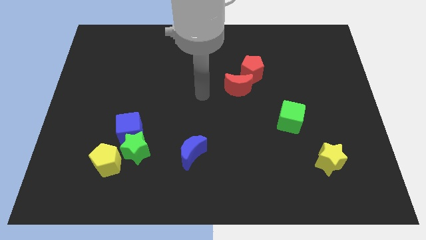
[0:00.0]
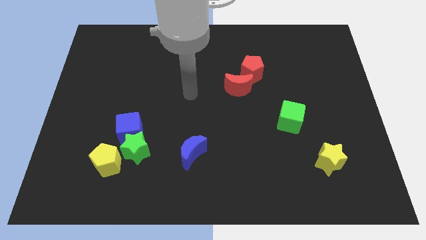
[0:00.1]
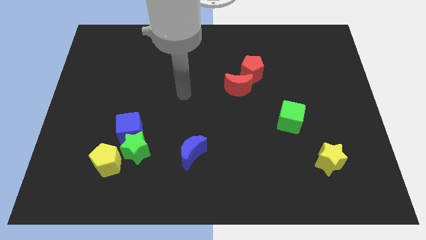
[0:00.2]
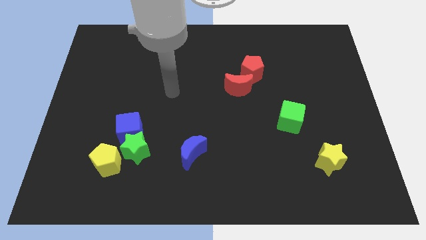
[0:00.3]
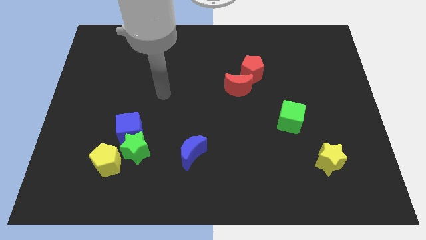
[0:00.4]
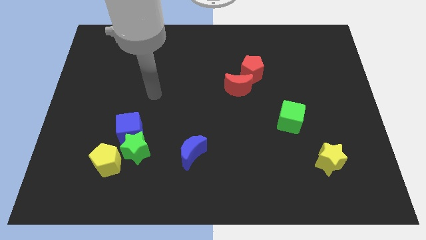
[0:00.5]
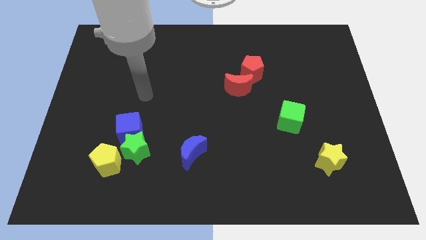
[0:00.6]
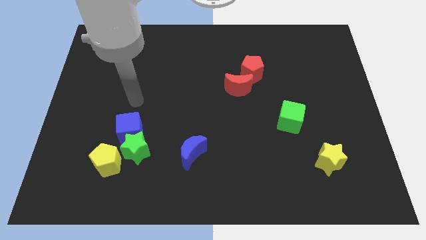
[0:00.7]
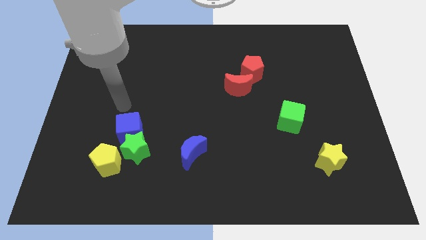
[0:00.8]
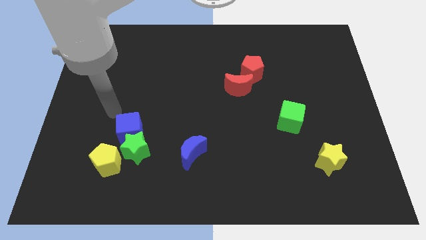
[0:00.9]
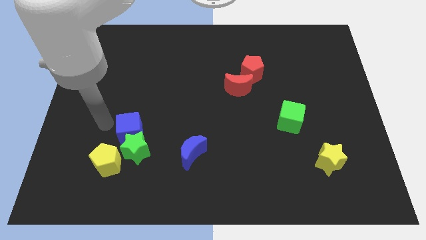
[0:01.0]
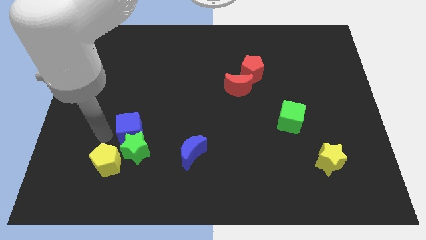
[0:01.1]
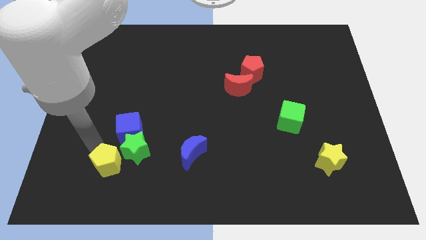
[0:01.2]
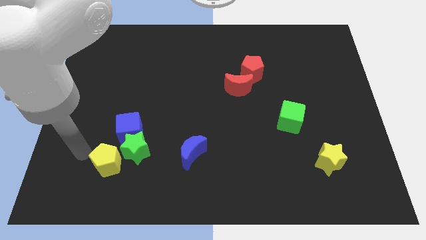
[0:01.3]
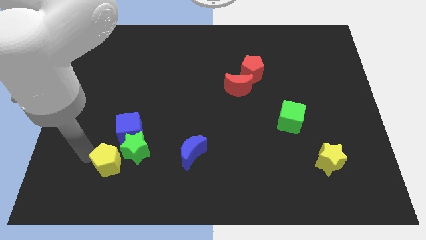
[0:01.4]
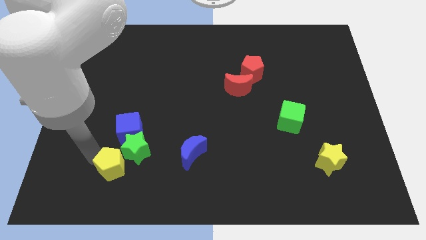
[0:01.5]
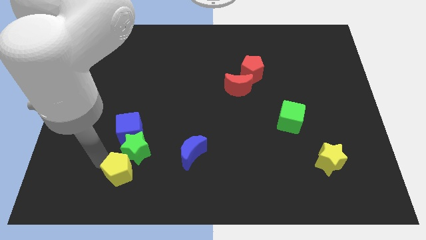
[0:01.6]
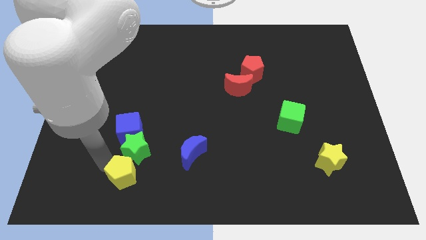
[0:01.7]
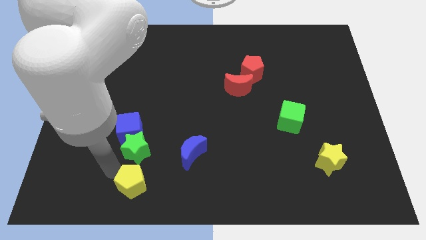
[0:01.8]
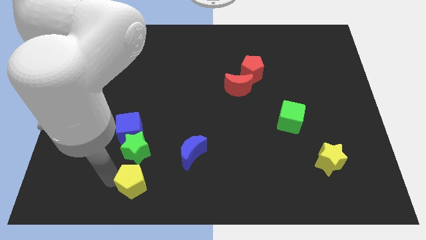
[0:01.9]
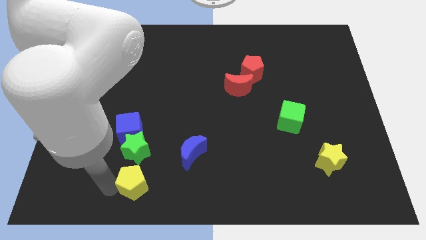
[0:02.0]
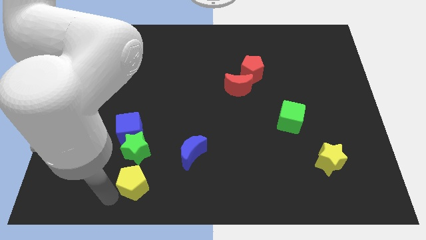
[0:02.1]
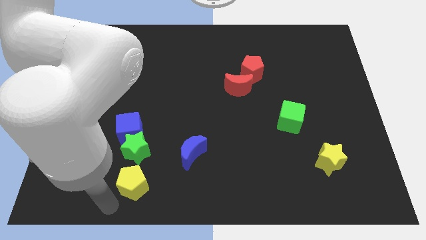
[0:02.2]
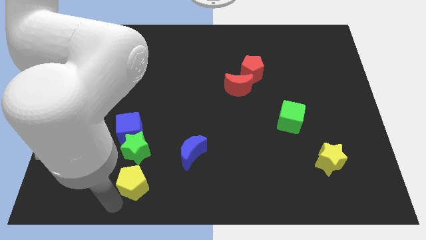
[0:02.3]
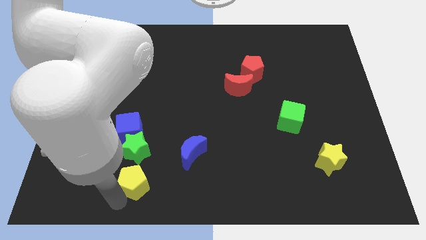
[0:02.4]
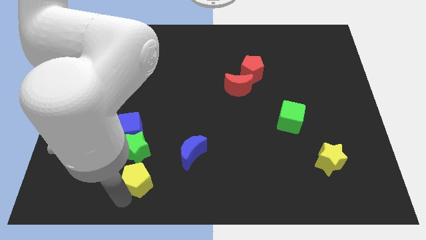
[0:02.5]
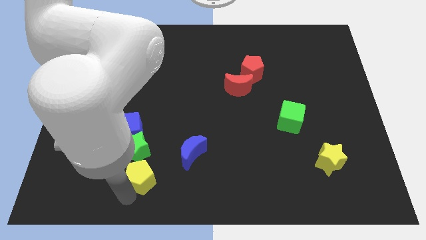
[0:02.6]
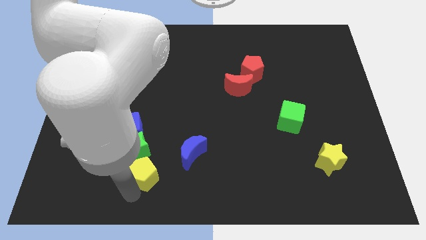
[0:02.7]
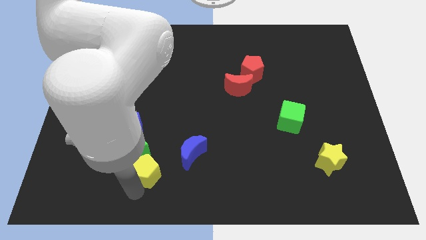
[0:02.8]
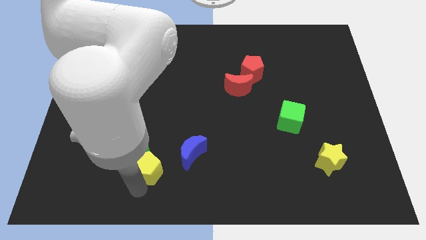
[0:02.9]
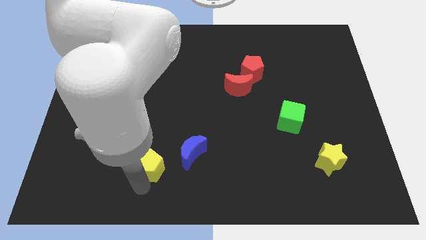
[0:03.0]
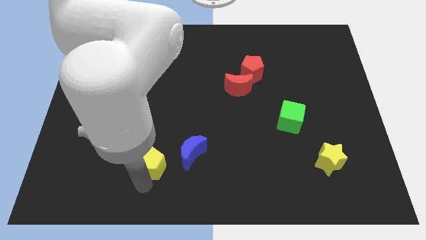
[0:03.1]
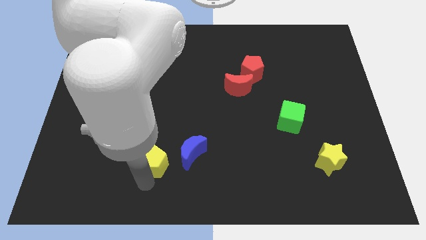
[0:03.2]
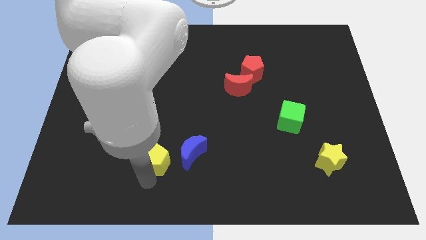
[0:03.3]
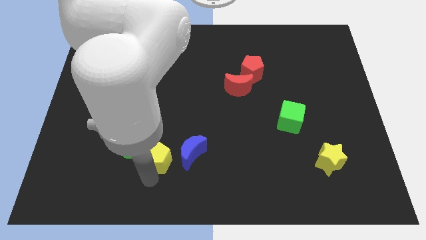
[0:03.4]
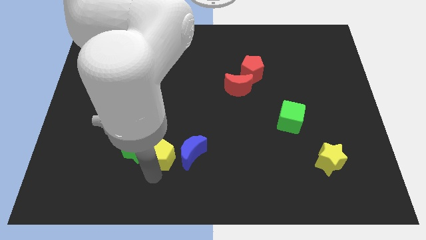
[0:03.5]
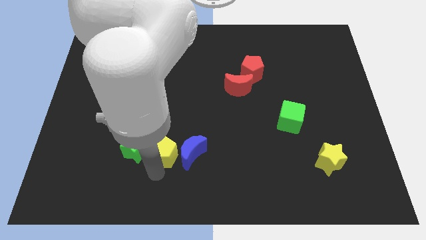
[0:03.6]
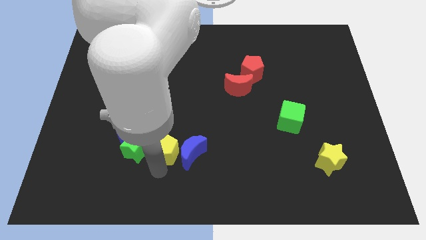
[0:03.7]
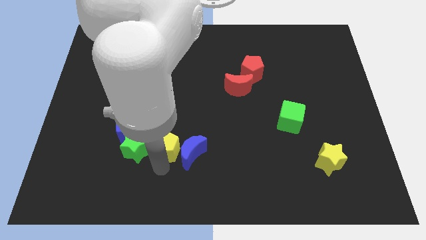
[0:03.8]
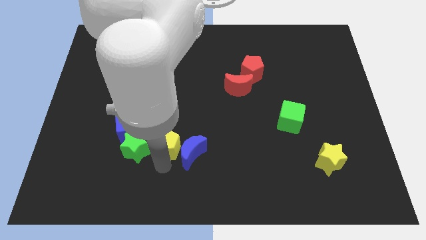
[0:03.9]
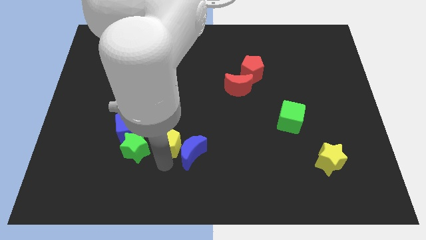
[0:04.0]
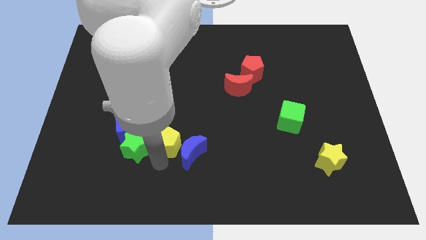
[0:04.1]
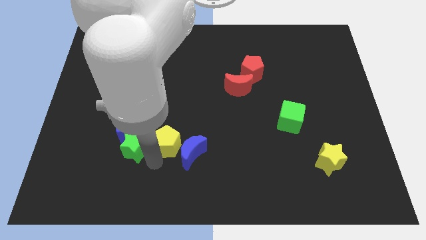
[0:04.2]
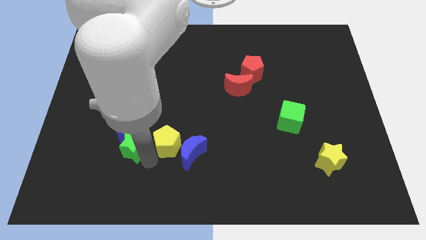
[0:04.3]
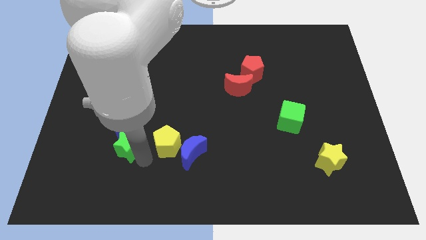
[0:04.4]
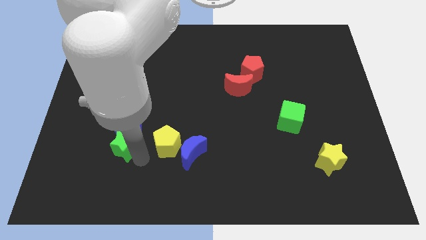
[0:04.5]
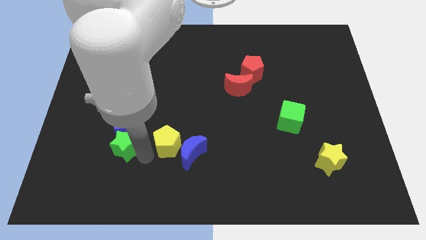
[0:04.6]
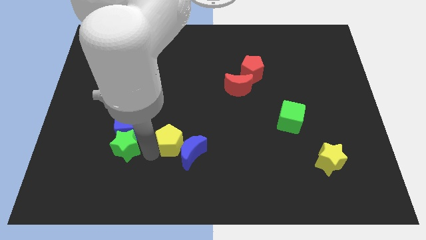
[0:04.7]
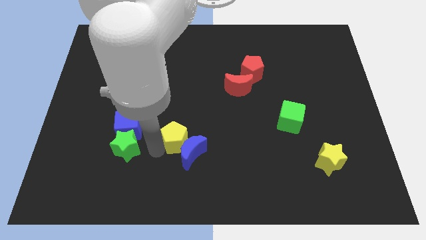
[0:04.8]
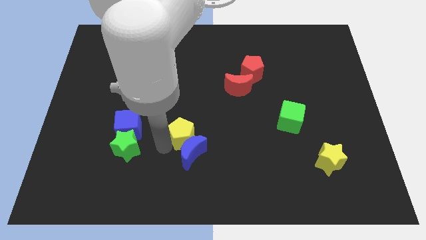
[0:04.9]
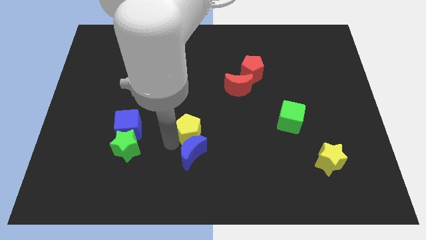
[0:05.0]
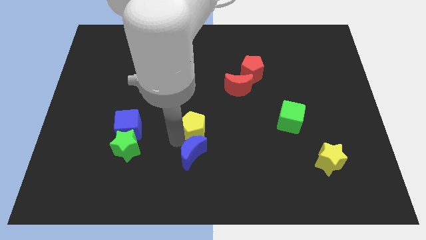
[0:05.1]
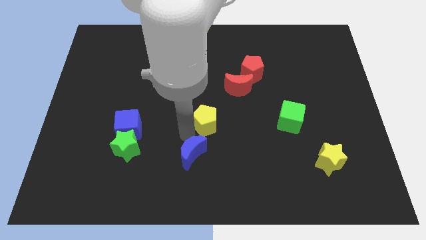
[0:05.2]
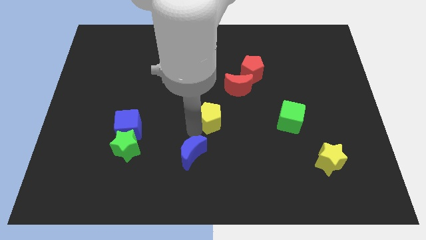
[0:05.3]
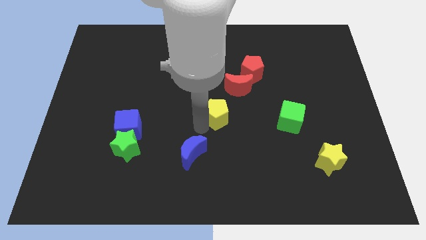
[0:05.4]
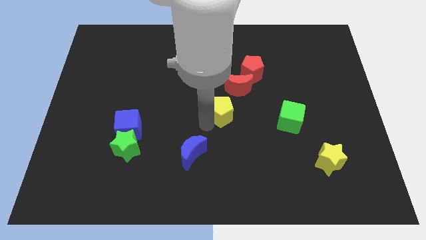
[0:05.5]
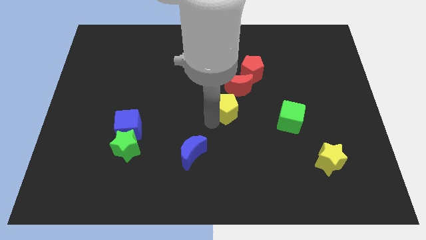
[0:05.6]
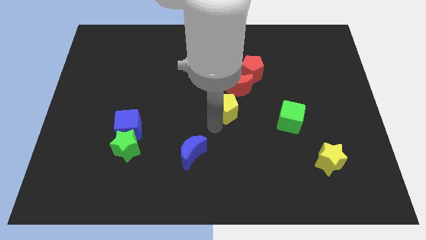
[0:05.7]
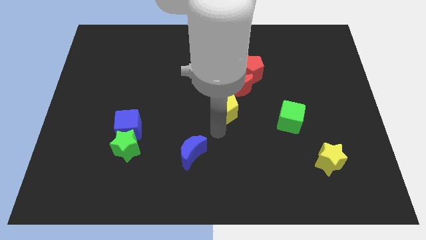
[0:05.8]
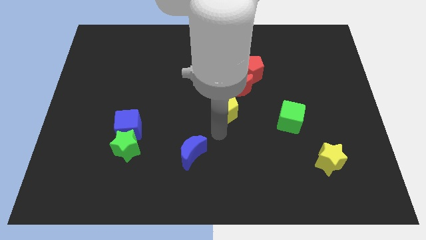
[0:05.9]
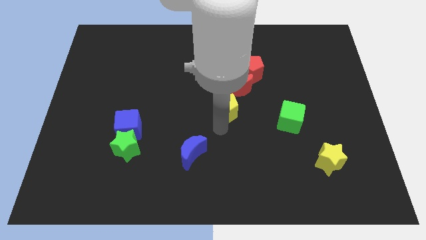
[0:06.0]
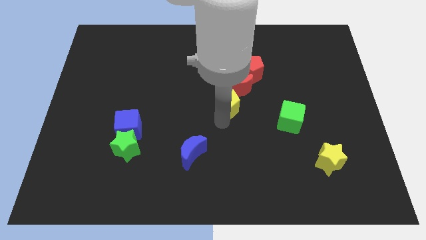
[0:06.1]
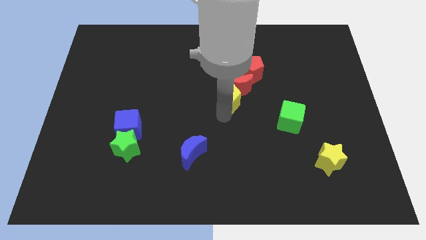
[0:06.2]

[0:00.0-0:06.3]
push the yellow pentagon to the bottom left side of the red pentagon
